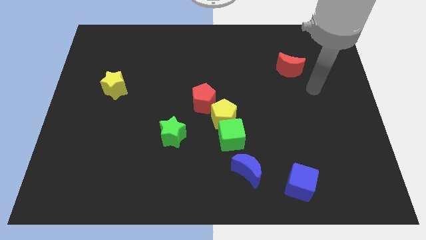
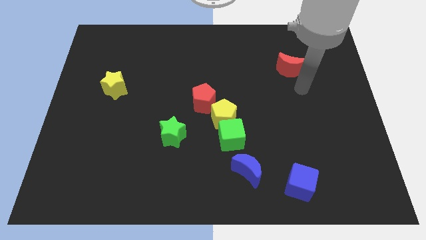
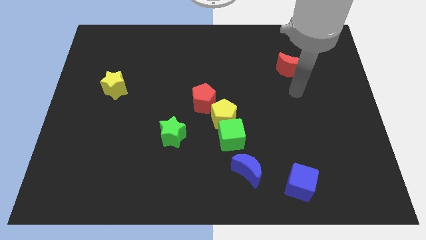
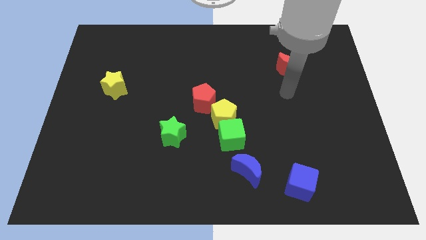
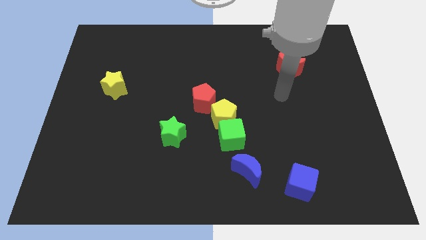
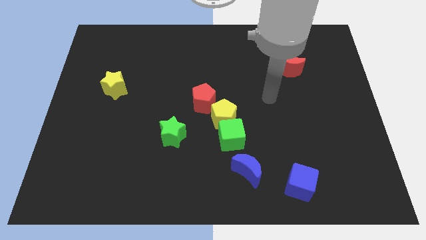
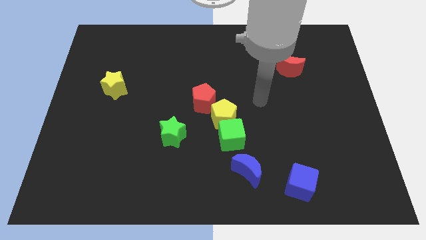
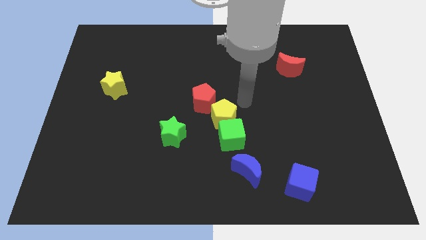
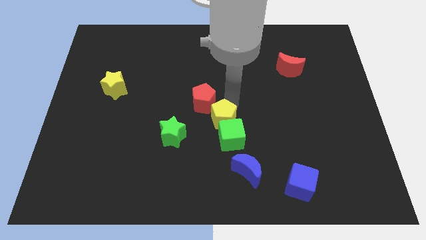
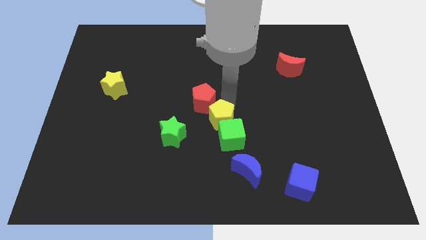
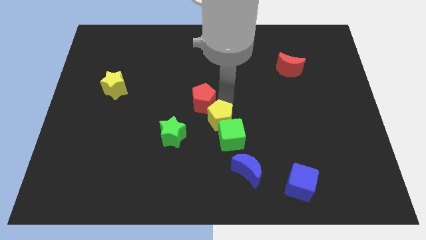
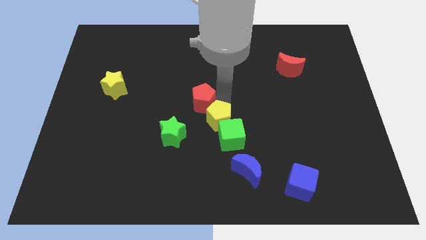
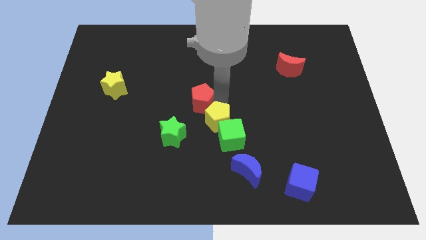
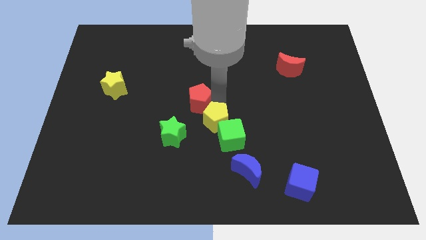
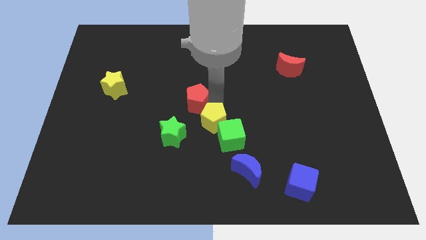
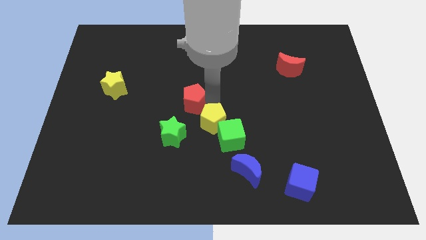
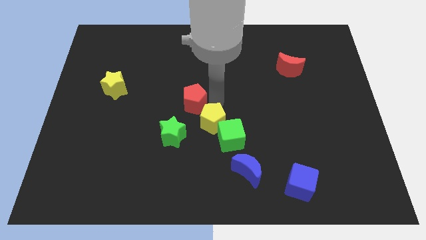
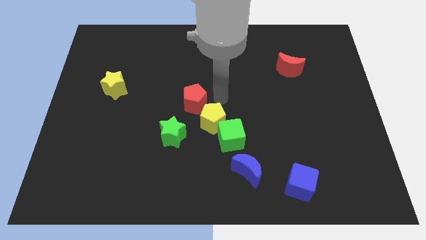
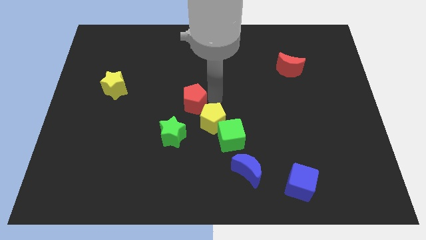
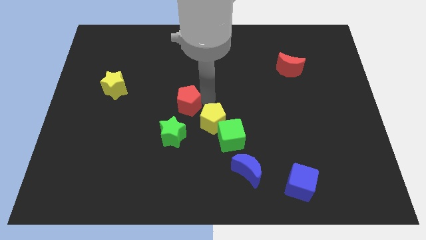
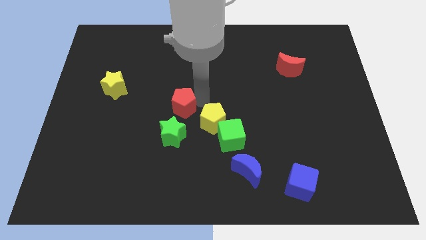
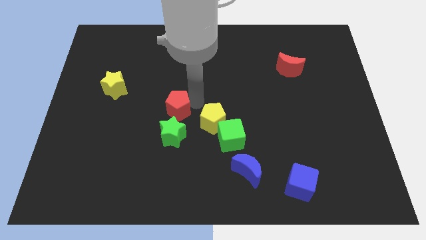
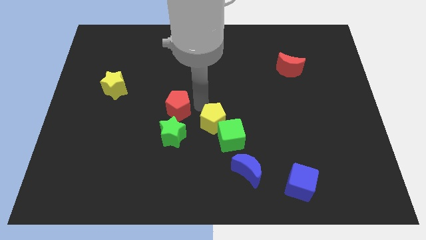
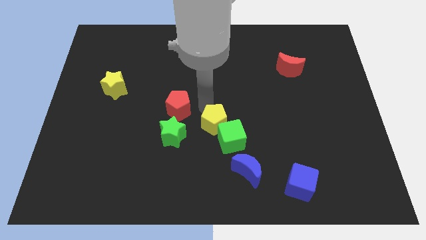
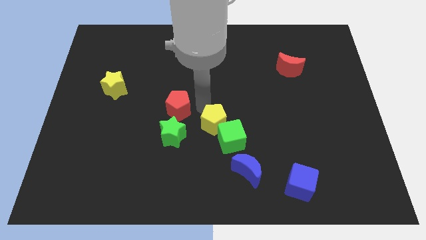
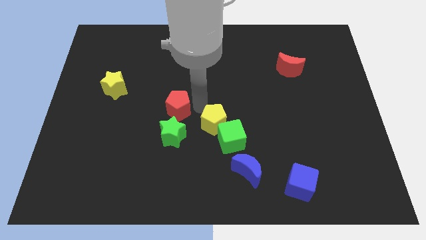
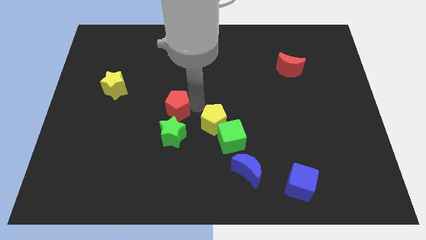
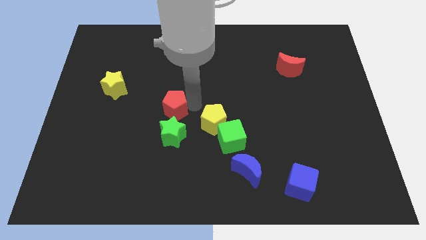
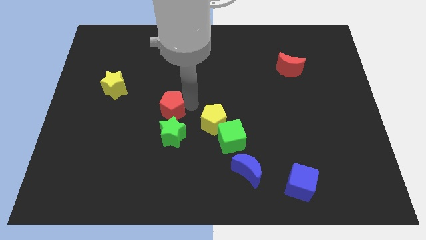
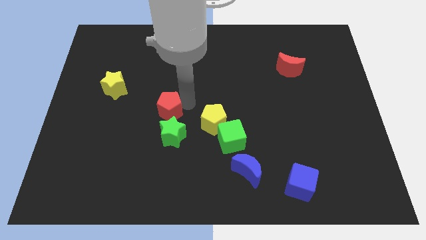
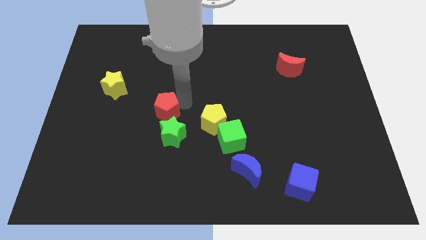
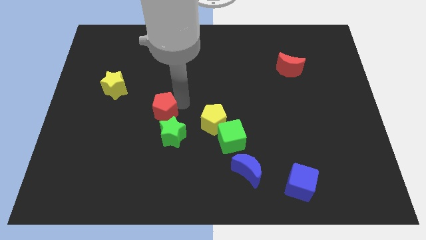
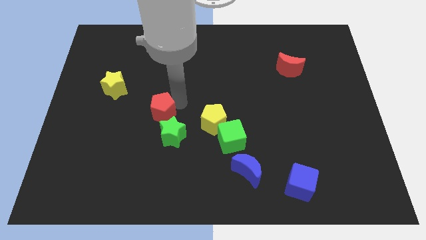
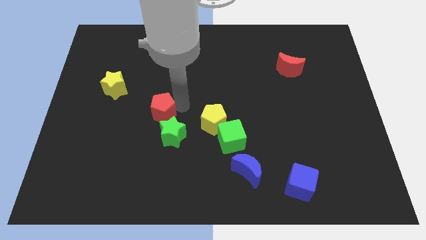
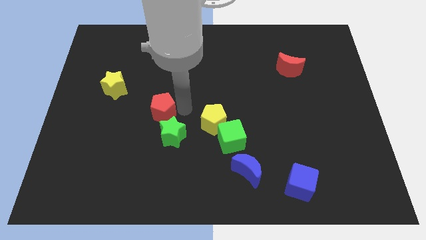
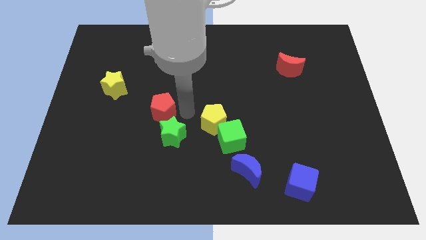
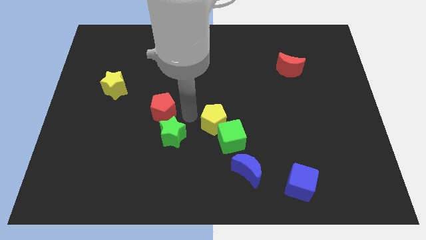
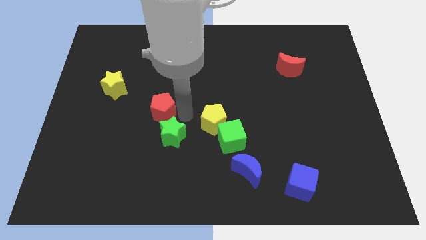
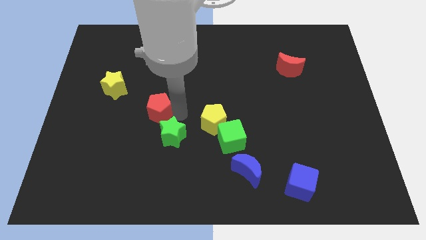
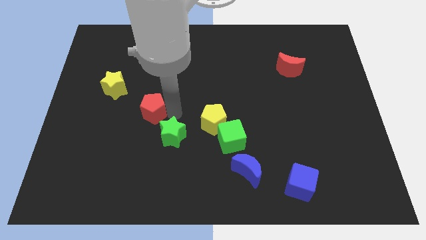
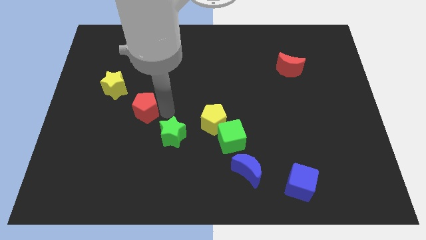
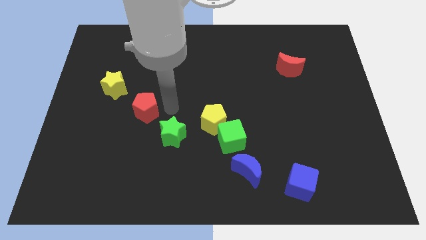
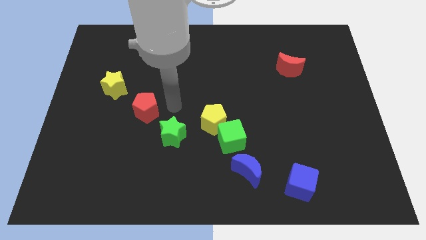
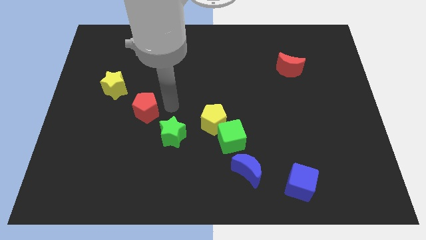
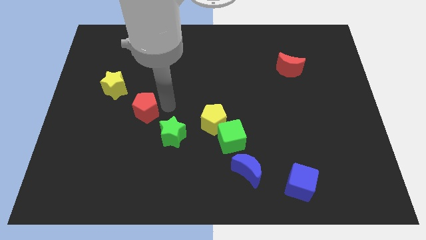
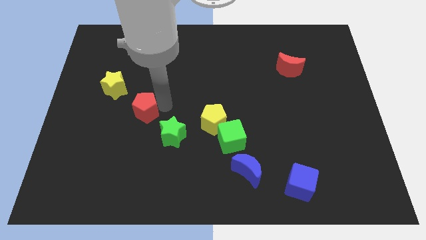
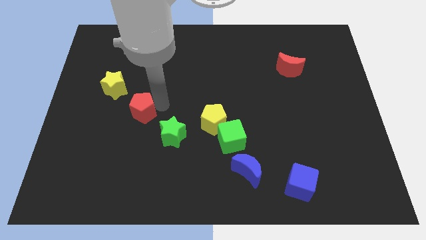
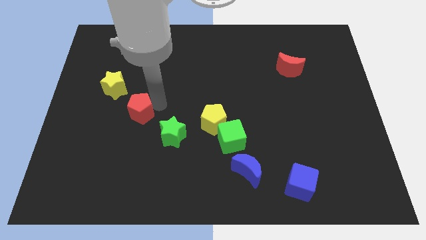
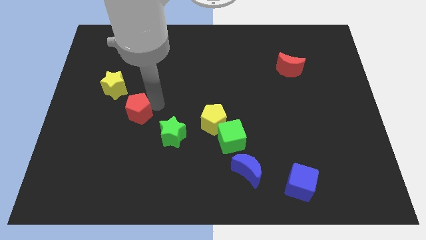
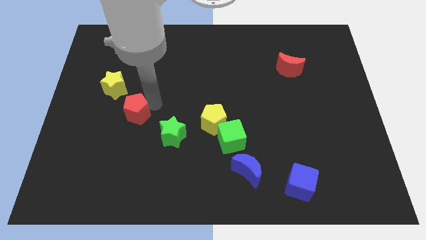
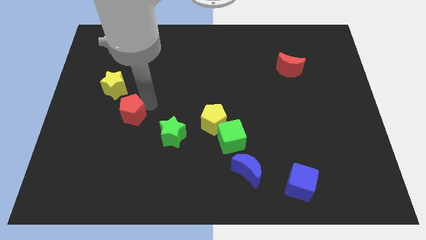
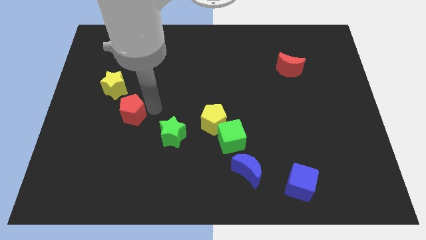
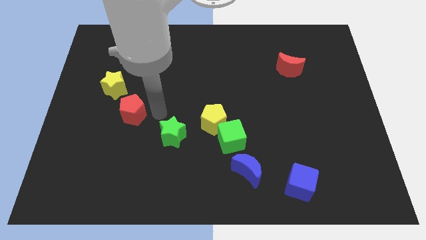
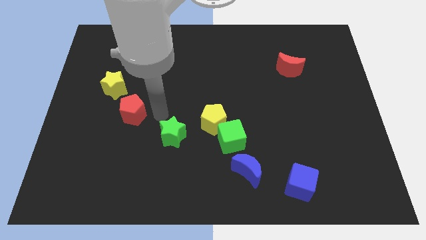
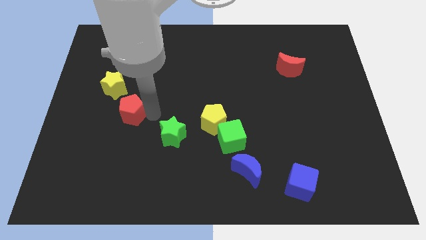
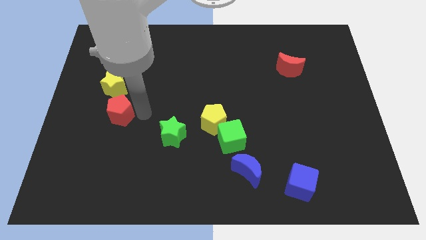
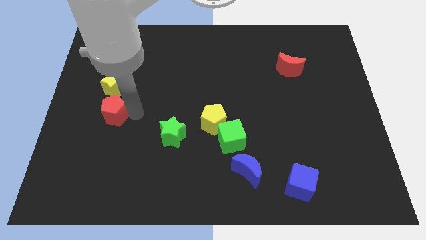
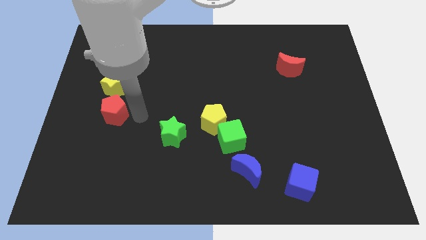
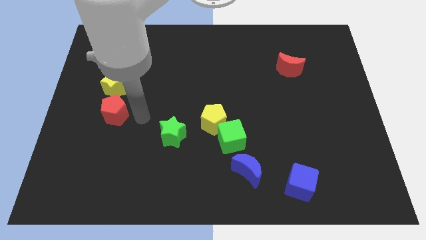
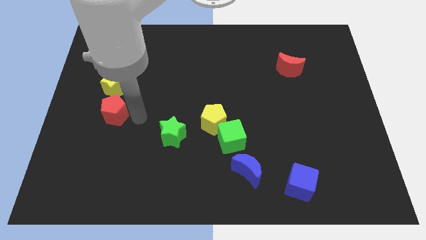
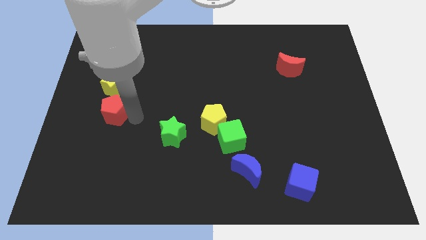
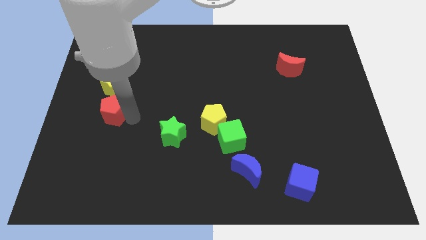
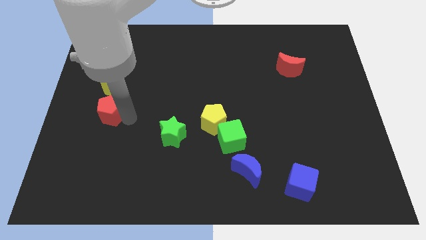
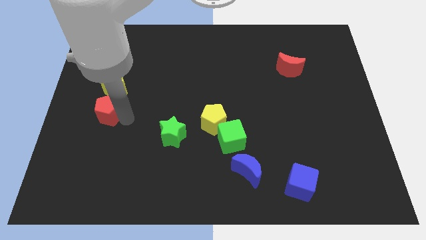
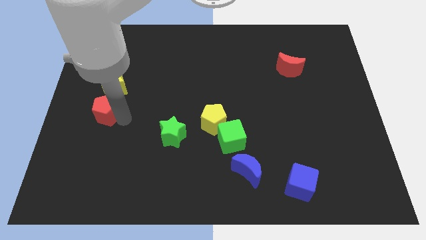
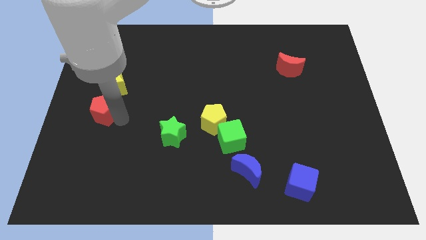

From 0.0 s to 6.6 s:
put the red pentagon to the left side

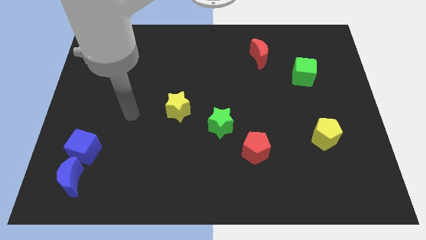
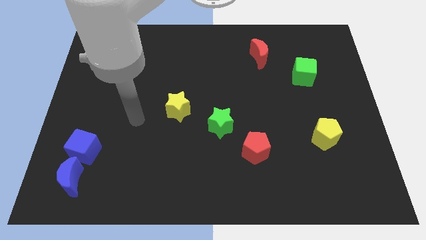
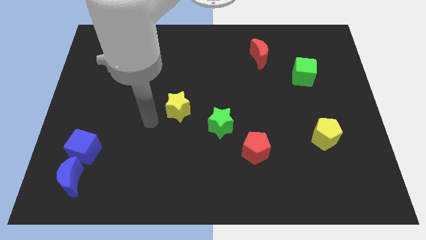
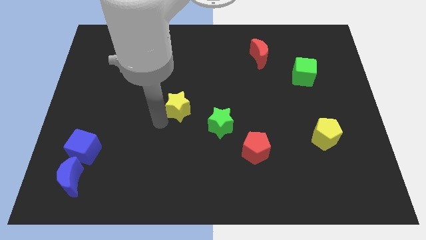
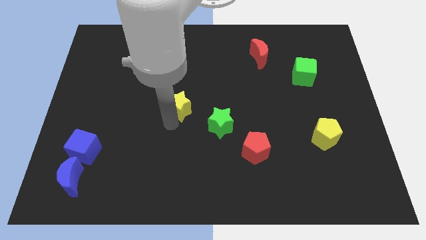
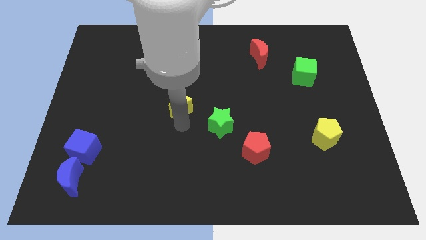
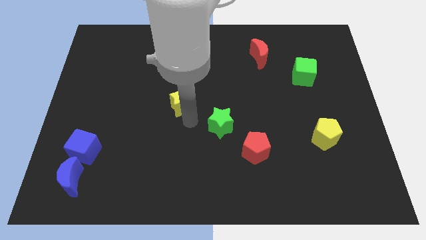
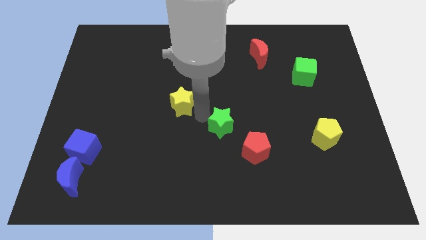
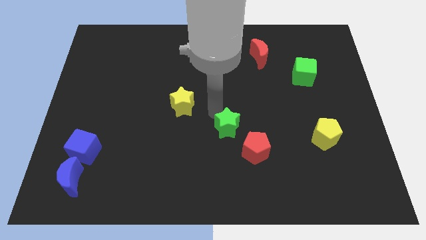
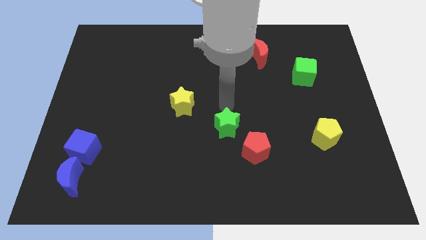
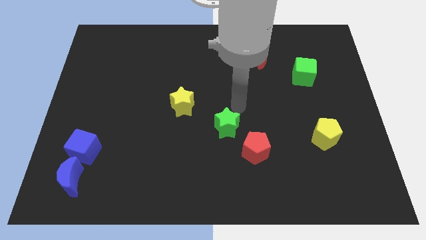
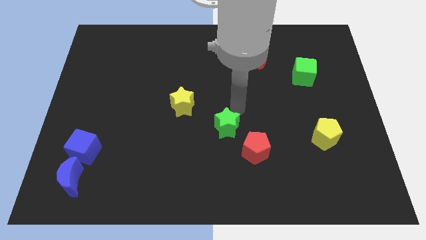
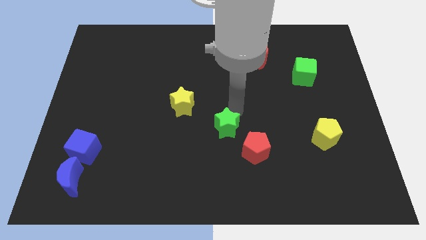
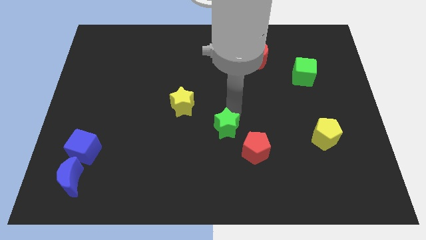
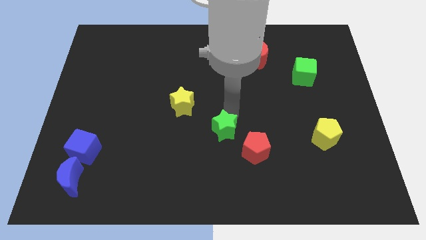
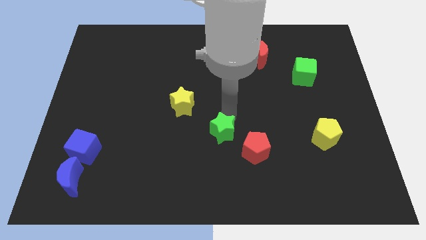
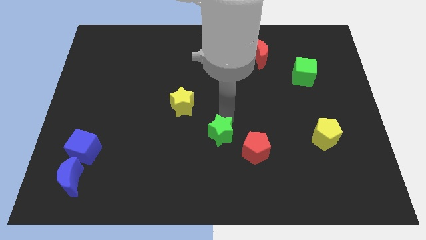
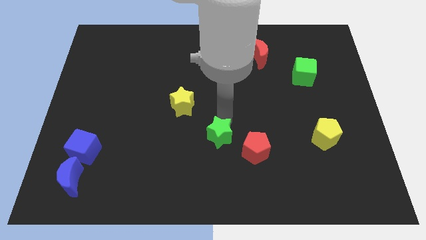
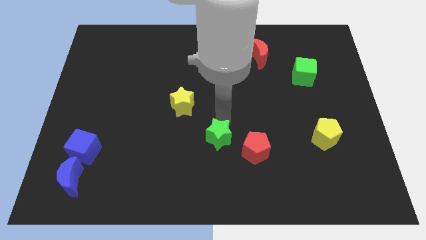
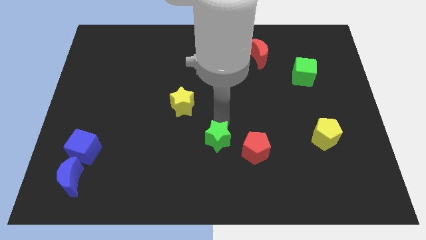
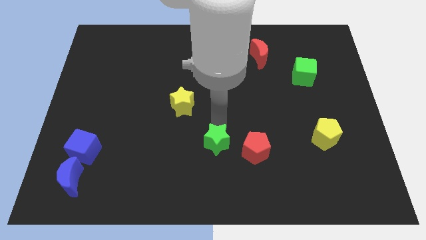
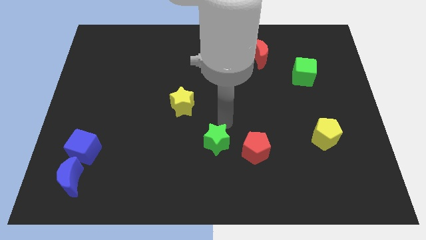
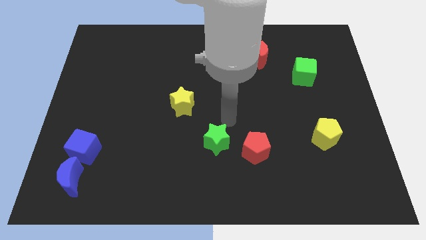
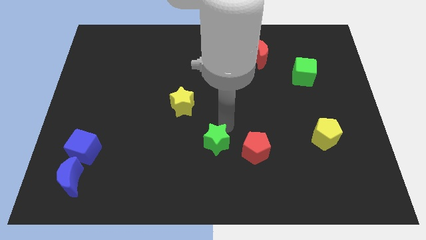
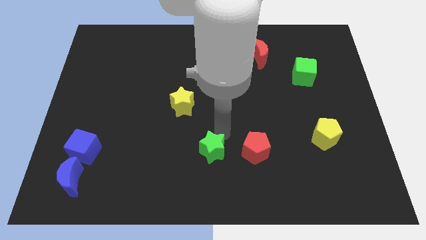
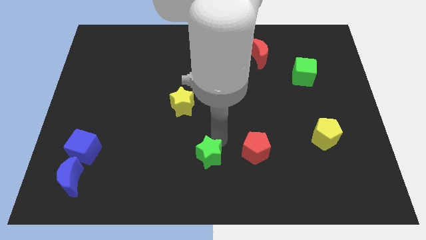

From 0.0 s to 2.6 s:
push the green star to the bottom side
